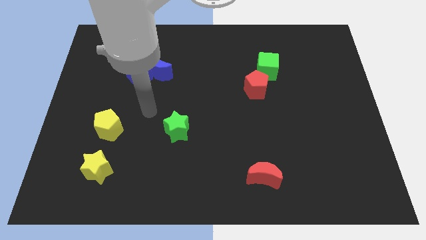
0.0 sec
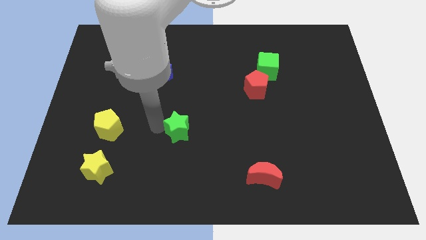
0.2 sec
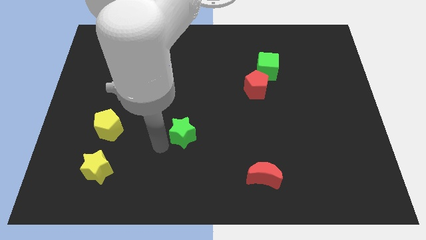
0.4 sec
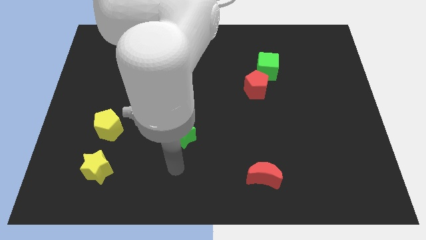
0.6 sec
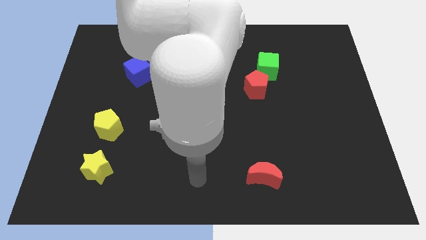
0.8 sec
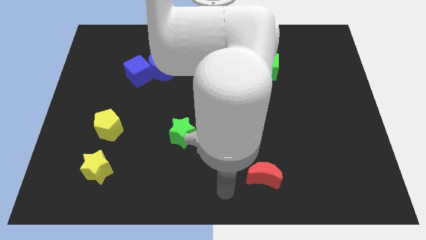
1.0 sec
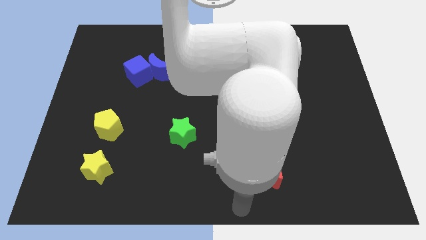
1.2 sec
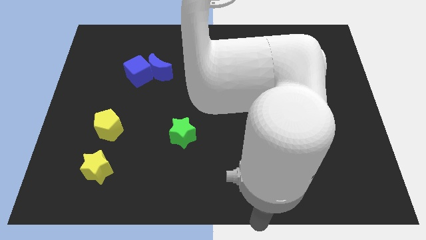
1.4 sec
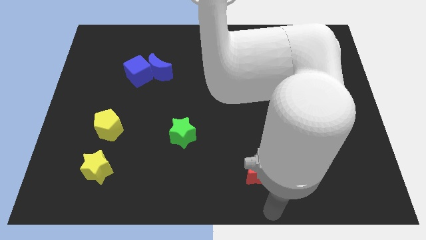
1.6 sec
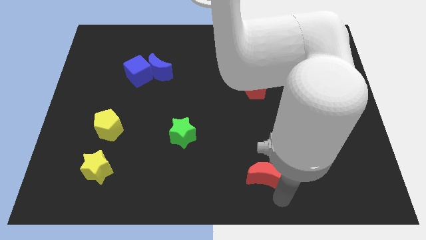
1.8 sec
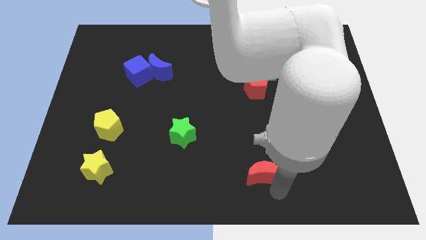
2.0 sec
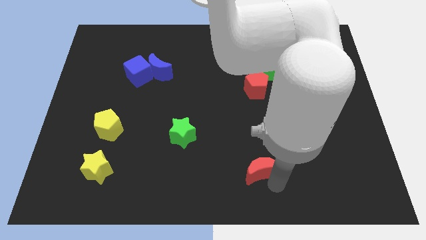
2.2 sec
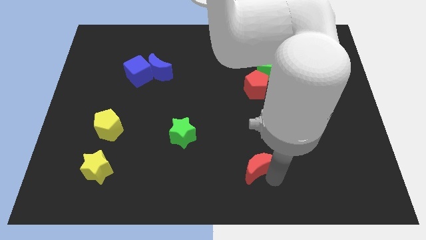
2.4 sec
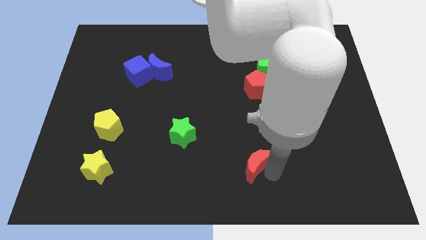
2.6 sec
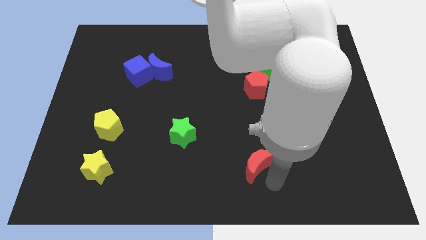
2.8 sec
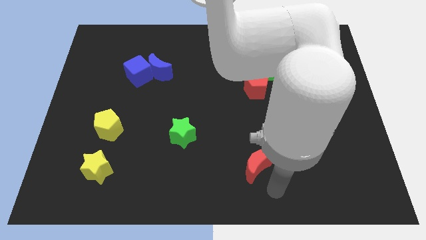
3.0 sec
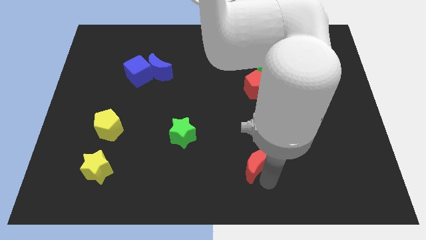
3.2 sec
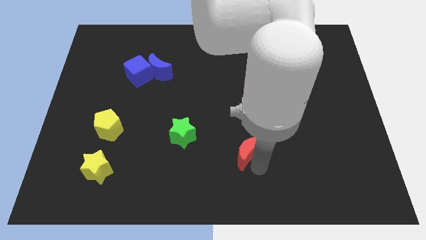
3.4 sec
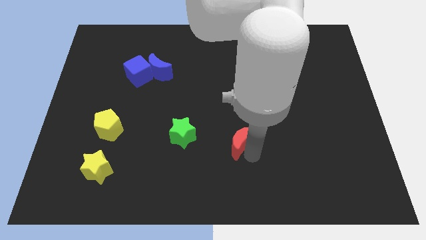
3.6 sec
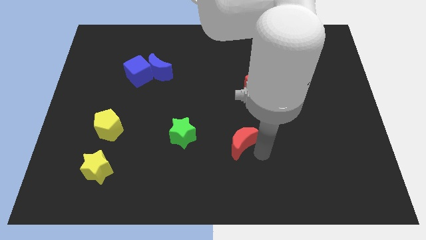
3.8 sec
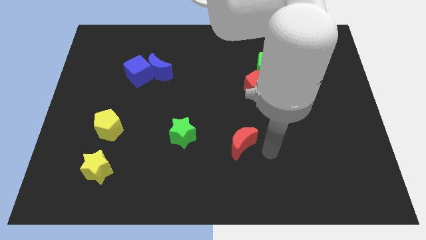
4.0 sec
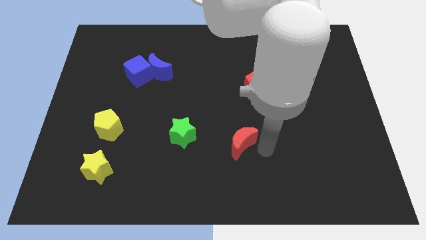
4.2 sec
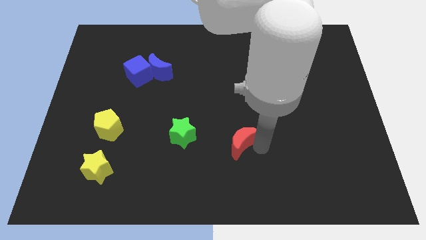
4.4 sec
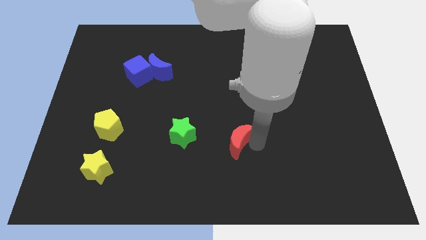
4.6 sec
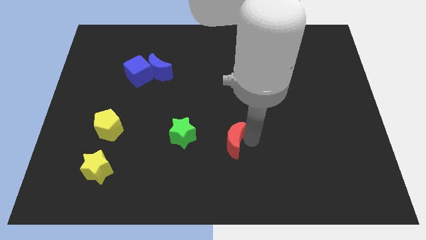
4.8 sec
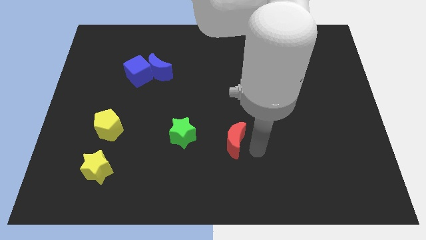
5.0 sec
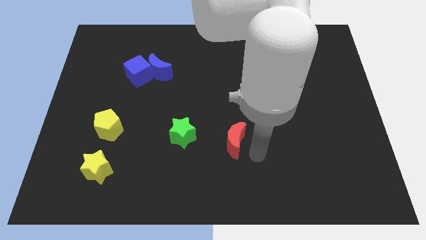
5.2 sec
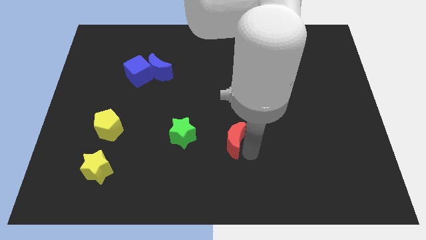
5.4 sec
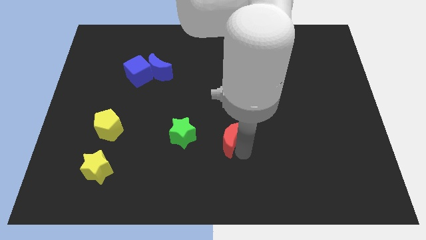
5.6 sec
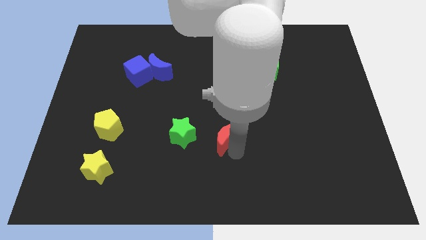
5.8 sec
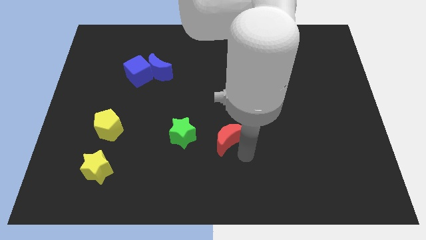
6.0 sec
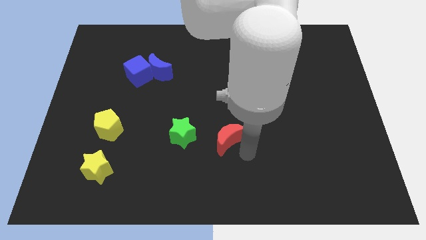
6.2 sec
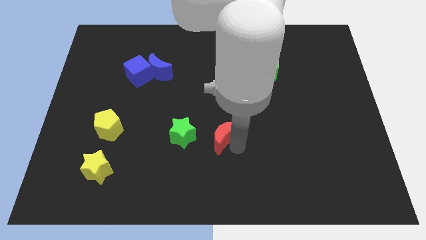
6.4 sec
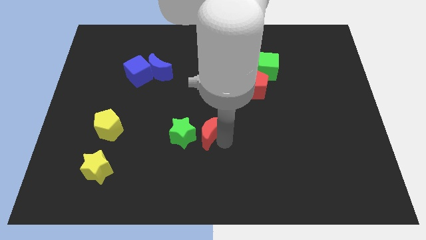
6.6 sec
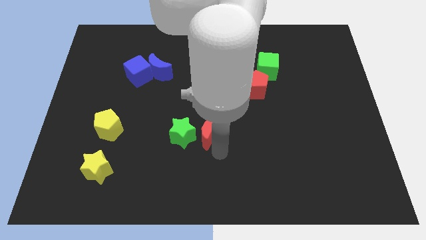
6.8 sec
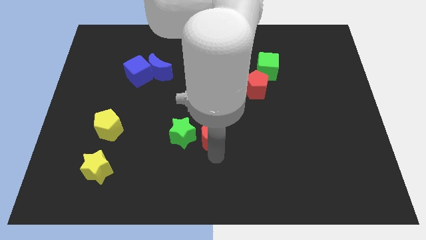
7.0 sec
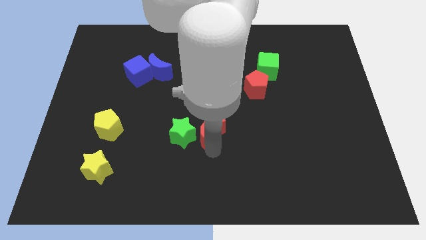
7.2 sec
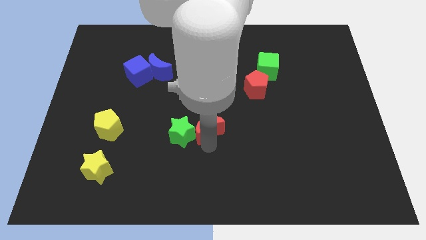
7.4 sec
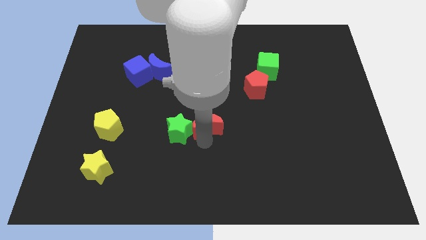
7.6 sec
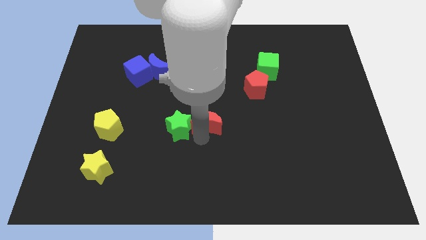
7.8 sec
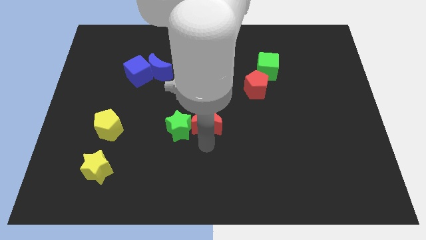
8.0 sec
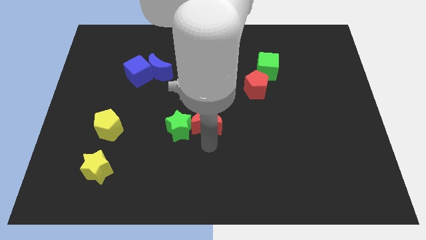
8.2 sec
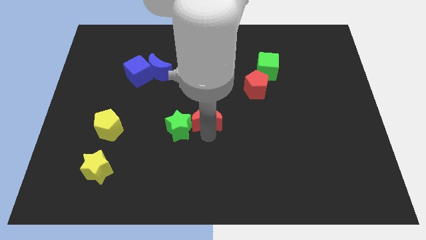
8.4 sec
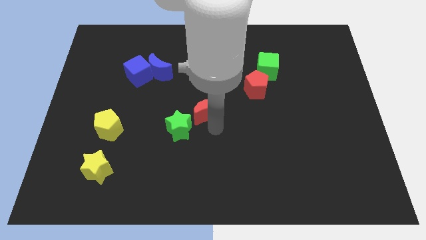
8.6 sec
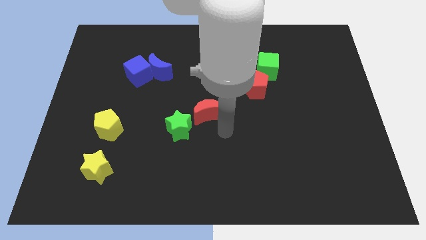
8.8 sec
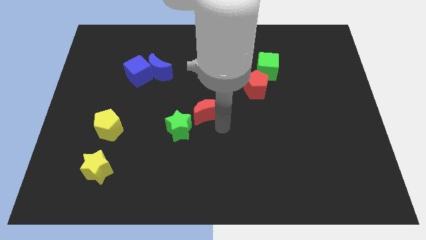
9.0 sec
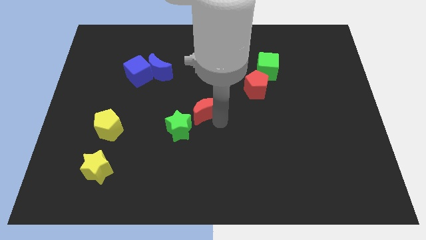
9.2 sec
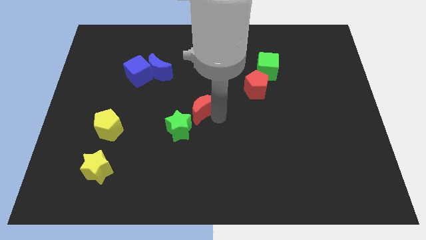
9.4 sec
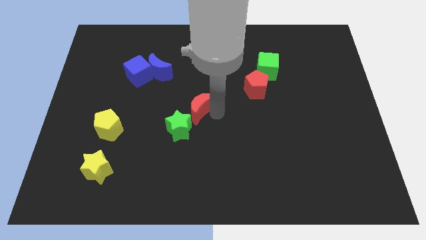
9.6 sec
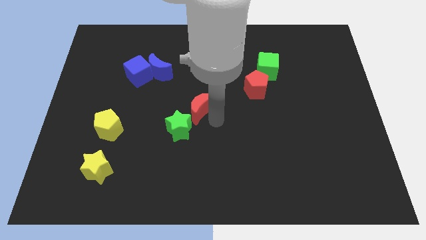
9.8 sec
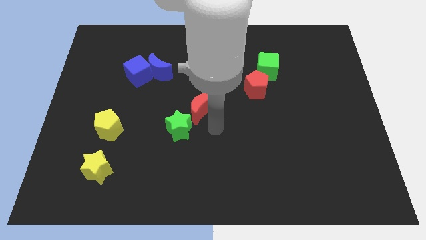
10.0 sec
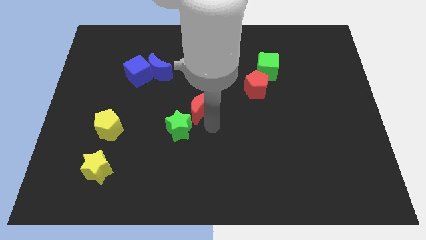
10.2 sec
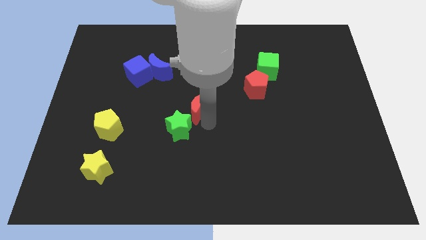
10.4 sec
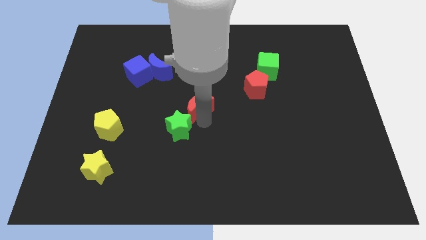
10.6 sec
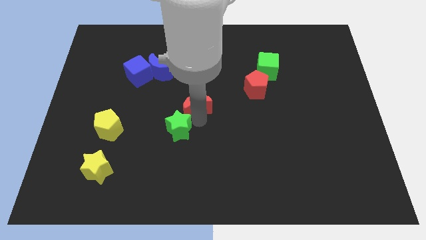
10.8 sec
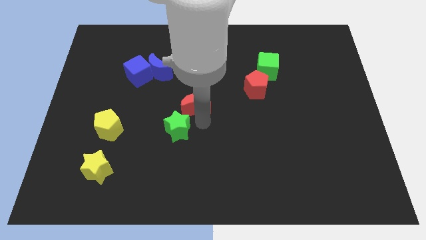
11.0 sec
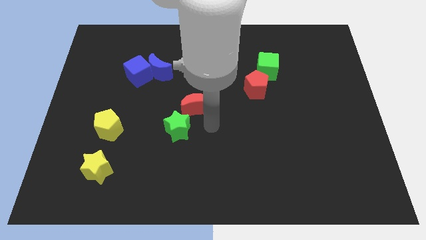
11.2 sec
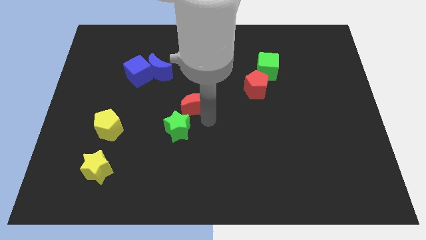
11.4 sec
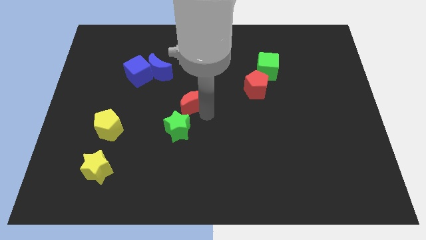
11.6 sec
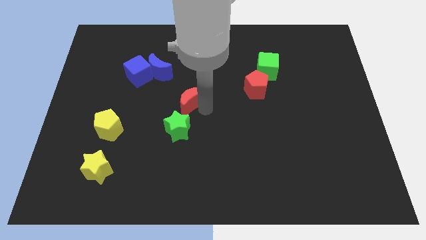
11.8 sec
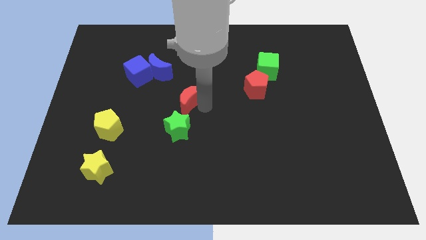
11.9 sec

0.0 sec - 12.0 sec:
put the red moon to the bottom right of the blue moon

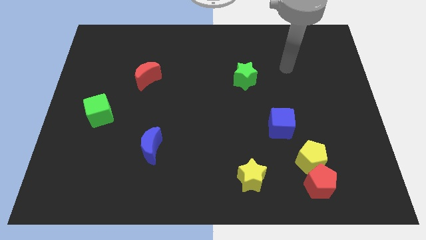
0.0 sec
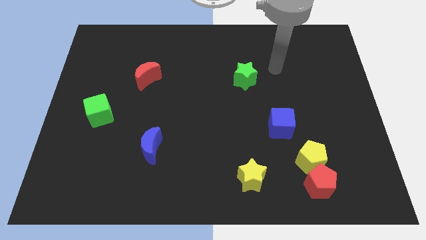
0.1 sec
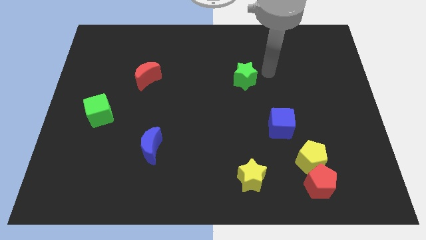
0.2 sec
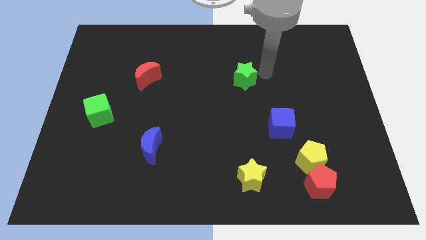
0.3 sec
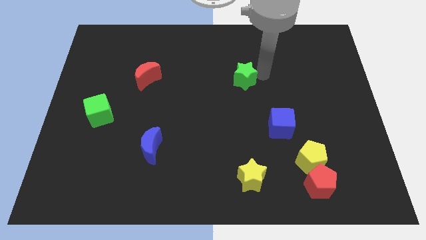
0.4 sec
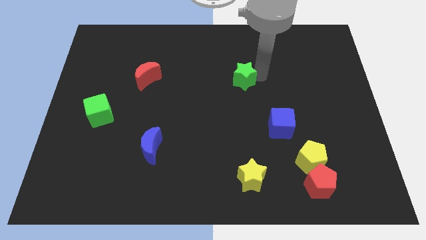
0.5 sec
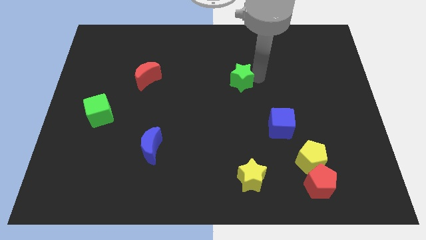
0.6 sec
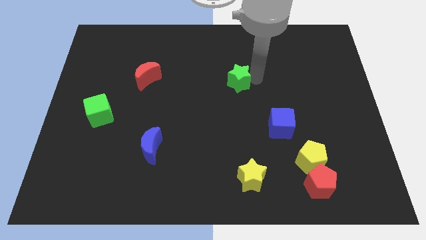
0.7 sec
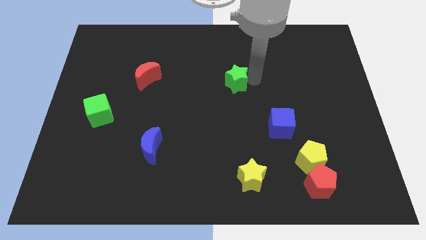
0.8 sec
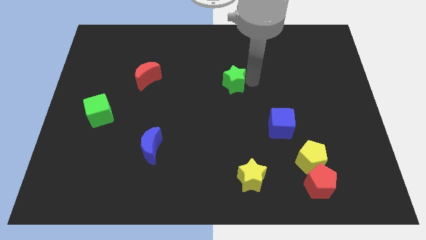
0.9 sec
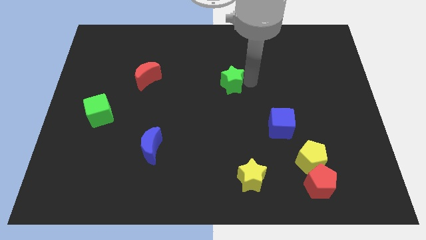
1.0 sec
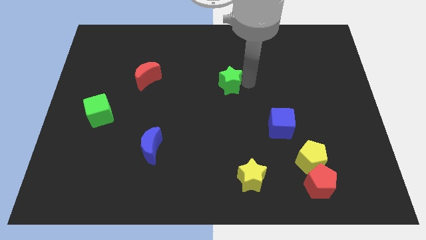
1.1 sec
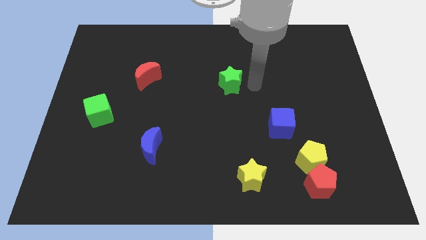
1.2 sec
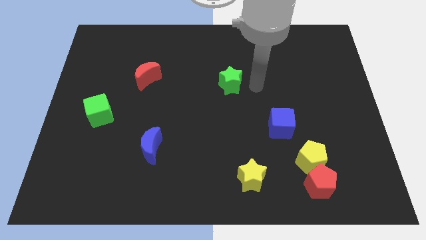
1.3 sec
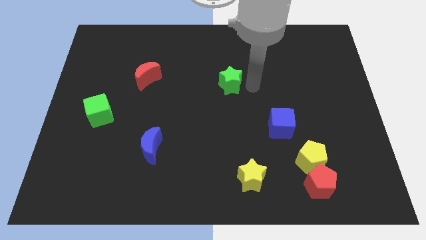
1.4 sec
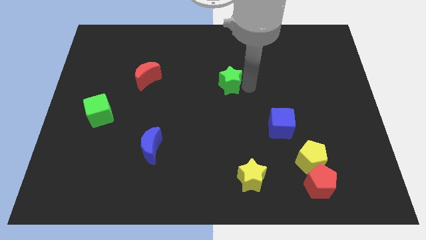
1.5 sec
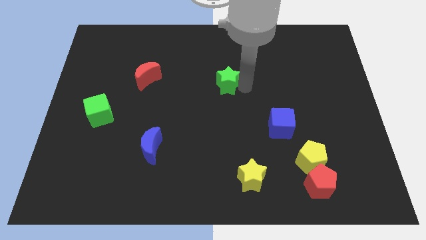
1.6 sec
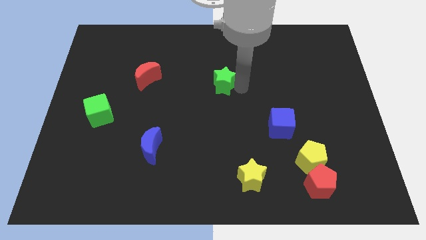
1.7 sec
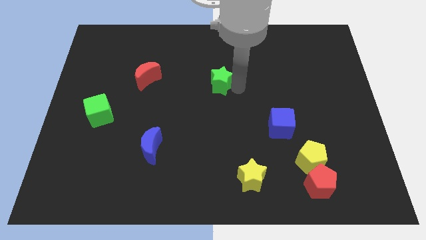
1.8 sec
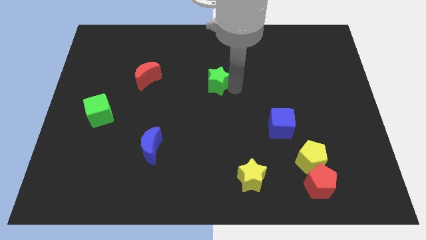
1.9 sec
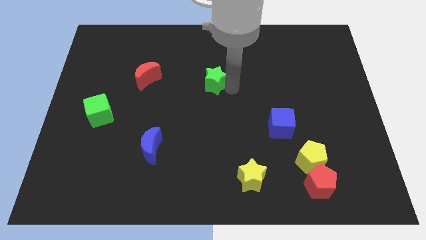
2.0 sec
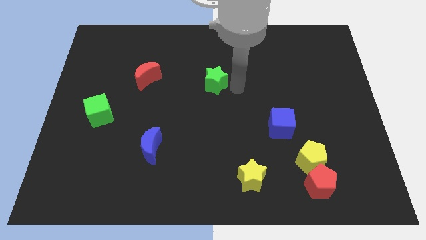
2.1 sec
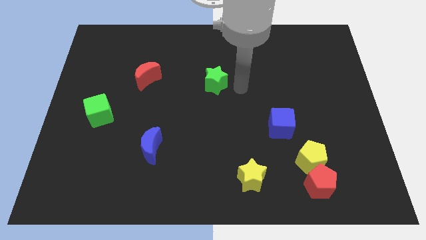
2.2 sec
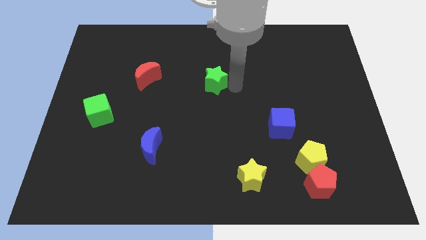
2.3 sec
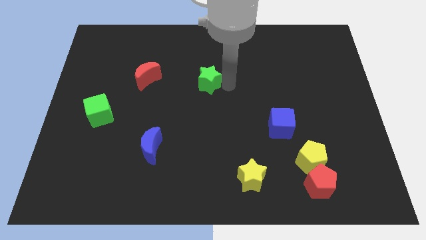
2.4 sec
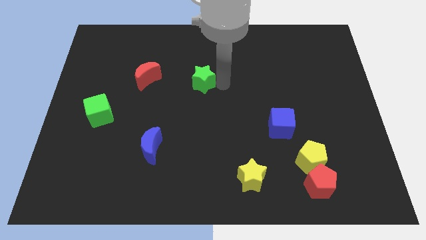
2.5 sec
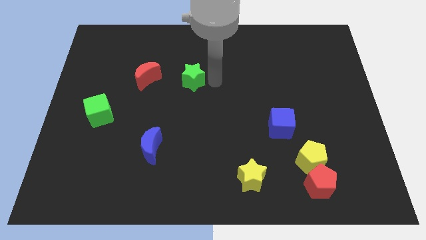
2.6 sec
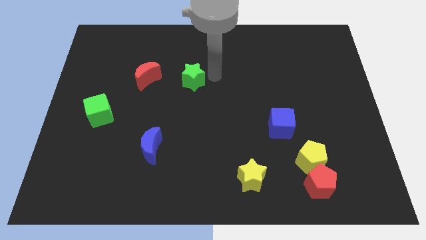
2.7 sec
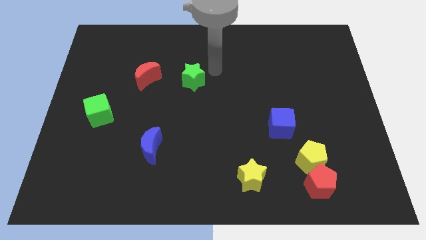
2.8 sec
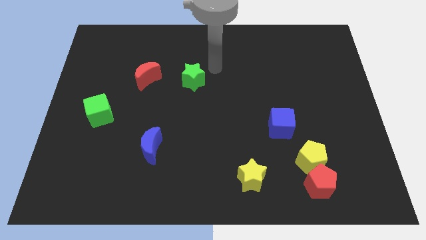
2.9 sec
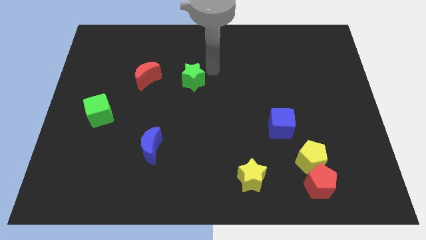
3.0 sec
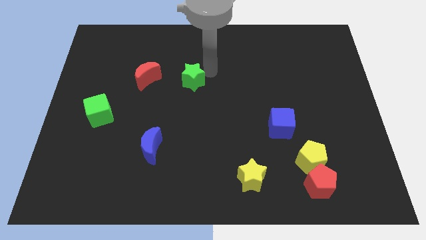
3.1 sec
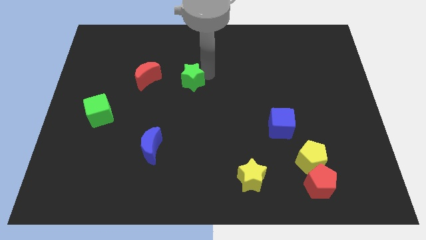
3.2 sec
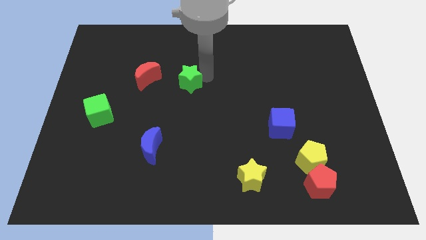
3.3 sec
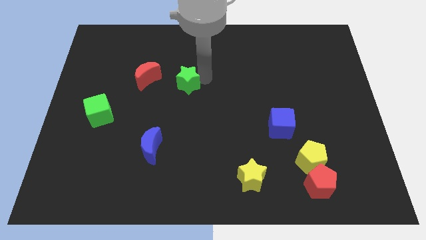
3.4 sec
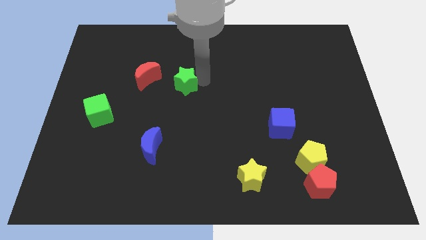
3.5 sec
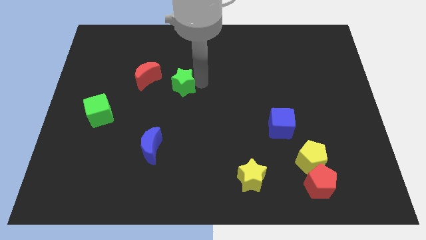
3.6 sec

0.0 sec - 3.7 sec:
push the green star to the bottom right of the red moon
